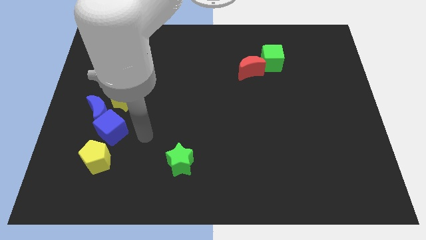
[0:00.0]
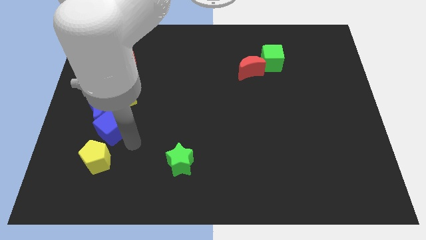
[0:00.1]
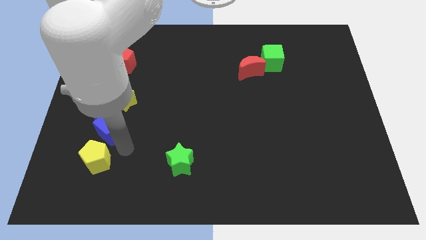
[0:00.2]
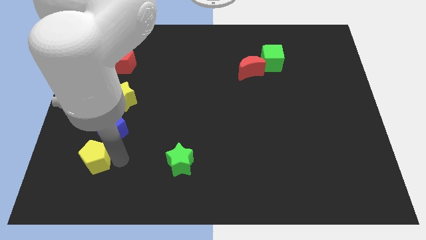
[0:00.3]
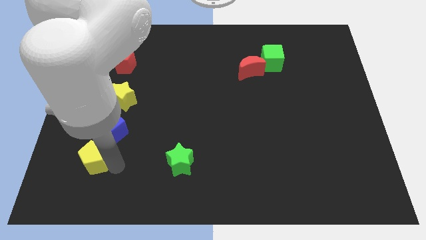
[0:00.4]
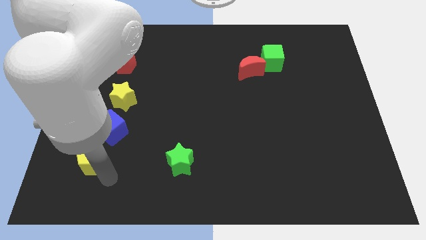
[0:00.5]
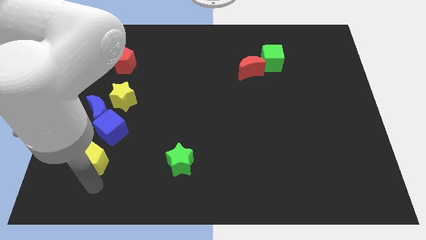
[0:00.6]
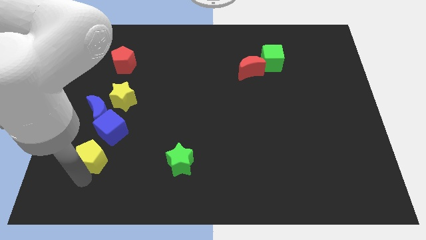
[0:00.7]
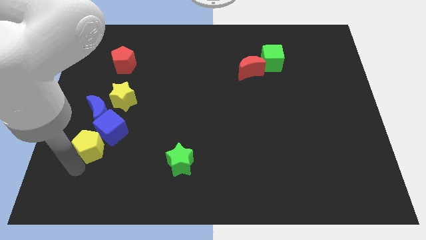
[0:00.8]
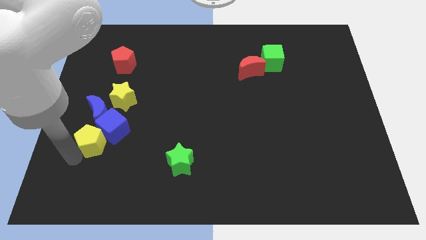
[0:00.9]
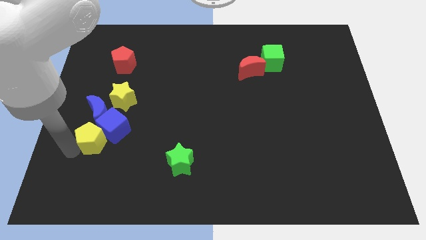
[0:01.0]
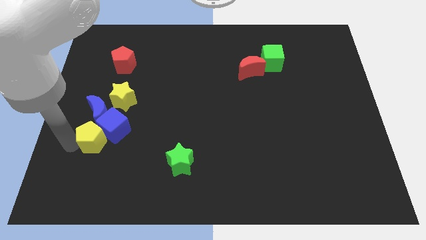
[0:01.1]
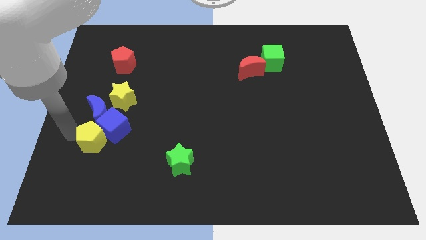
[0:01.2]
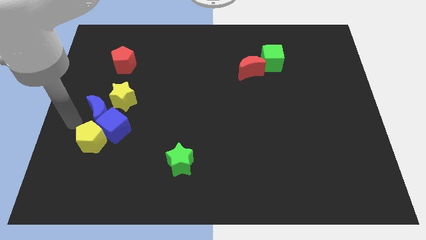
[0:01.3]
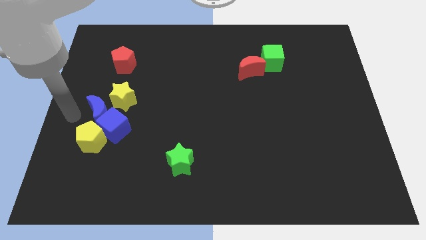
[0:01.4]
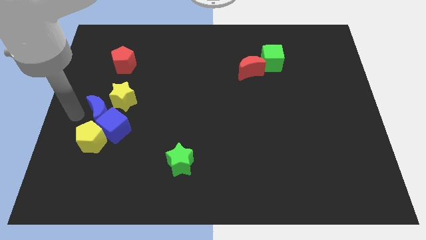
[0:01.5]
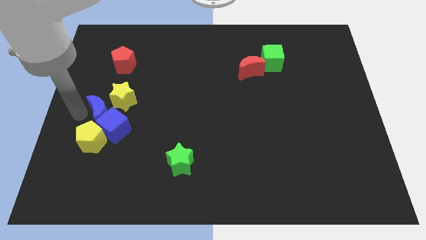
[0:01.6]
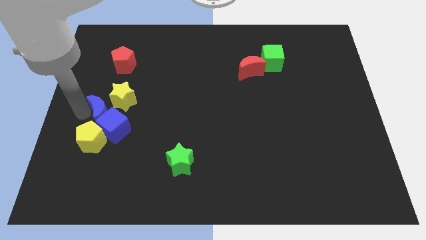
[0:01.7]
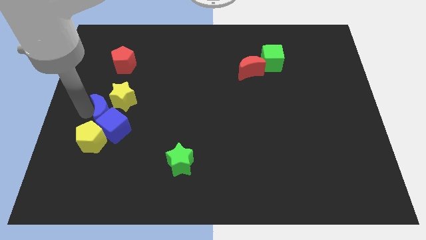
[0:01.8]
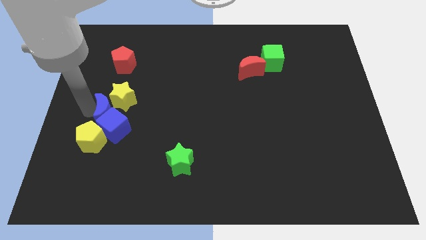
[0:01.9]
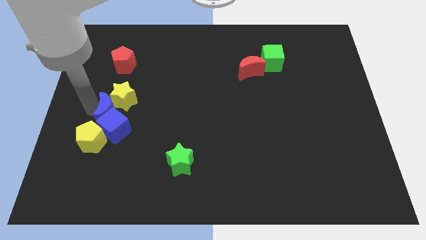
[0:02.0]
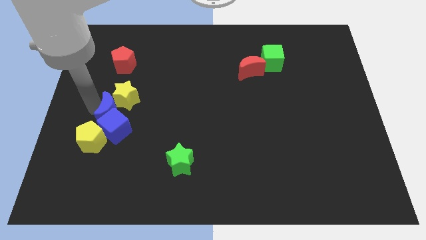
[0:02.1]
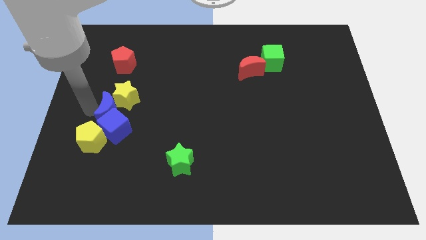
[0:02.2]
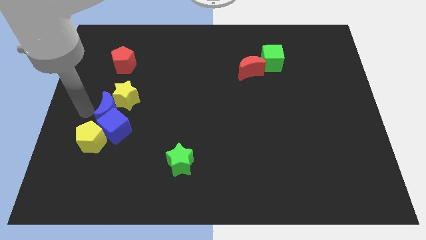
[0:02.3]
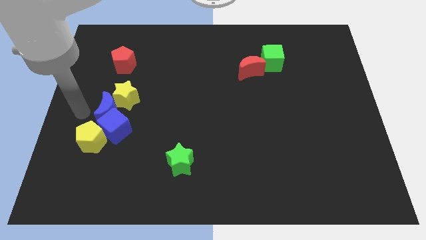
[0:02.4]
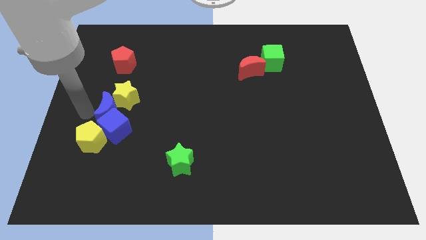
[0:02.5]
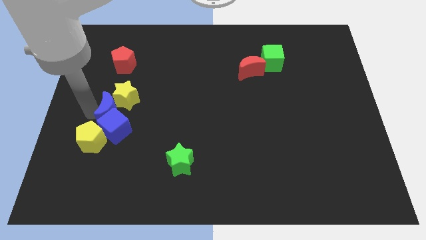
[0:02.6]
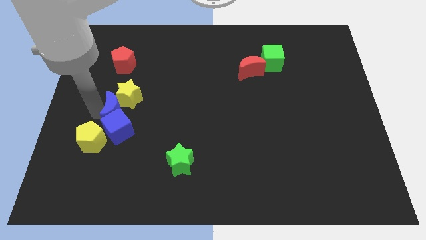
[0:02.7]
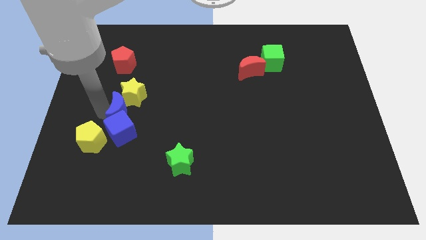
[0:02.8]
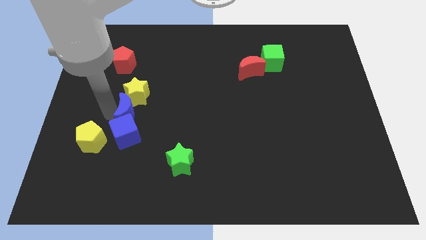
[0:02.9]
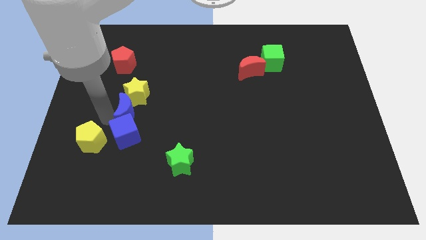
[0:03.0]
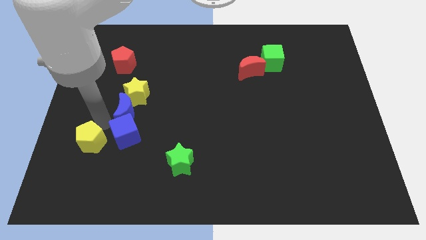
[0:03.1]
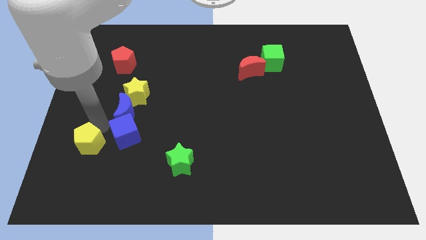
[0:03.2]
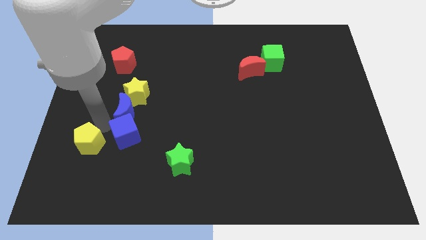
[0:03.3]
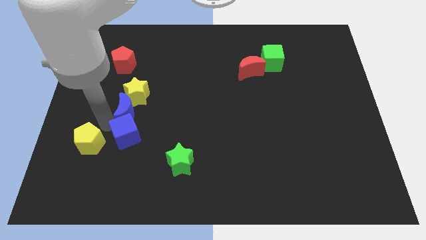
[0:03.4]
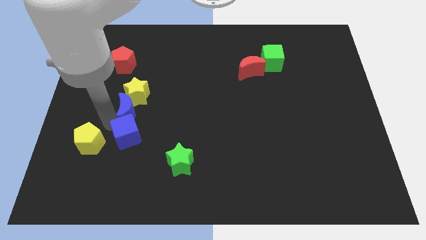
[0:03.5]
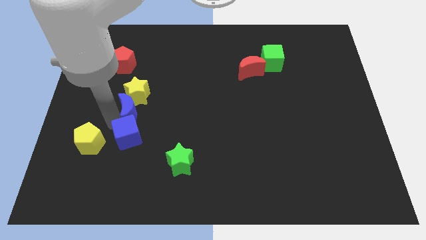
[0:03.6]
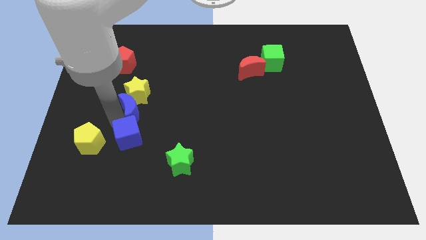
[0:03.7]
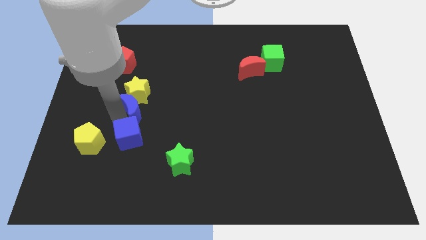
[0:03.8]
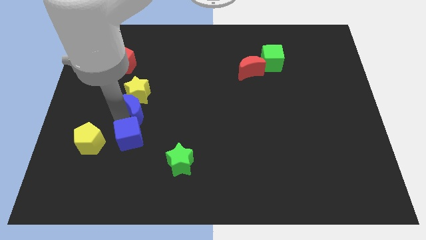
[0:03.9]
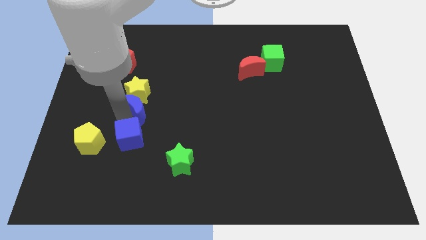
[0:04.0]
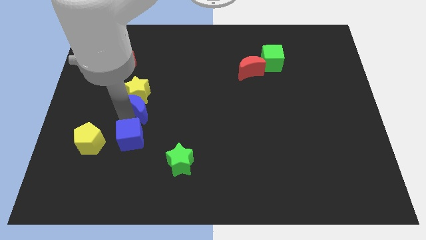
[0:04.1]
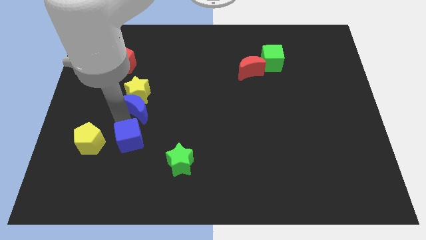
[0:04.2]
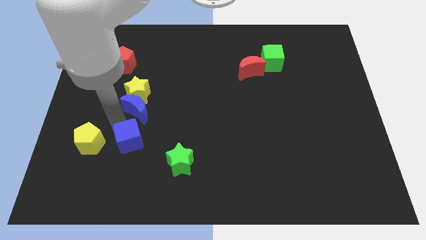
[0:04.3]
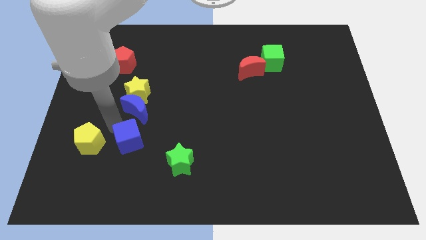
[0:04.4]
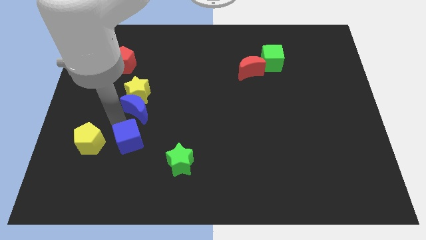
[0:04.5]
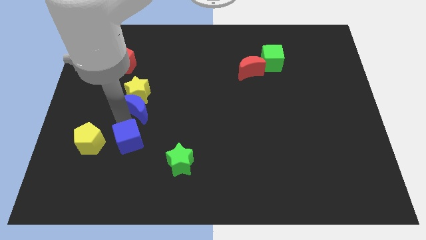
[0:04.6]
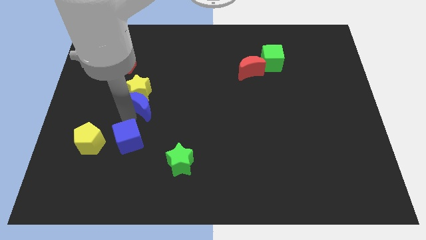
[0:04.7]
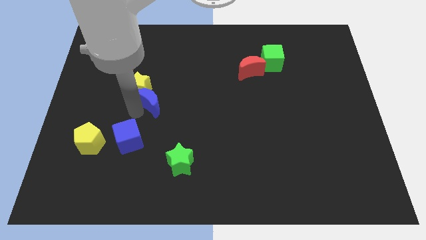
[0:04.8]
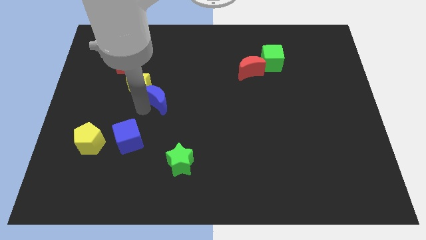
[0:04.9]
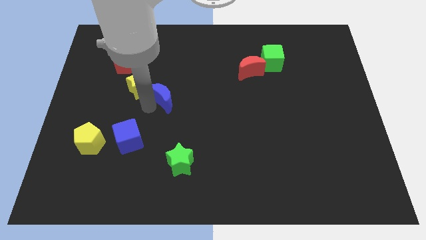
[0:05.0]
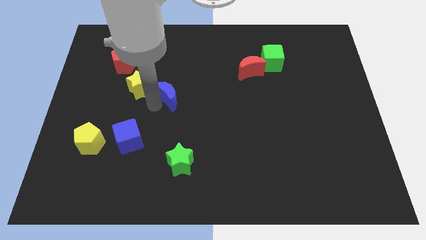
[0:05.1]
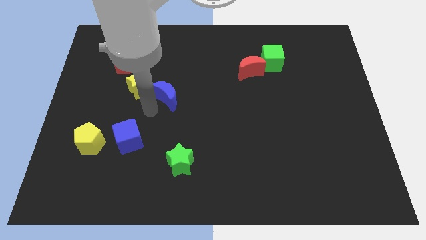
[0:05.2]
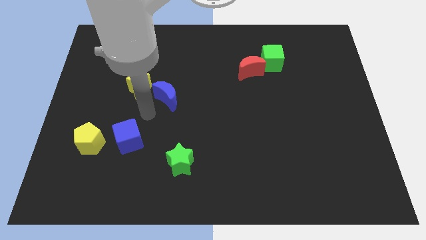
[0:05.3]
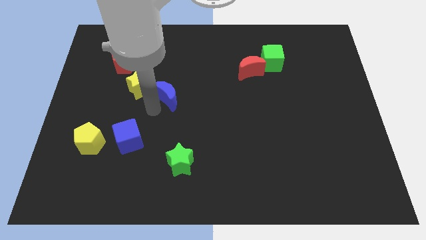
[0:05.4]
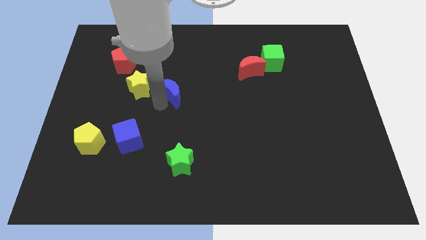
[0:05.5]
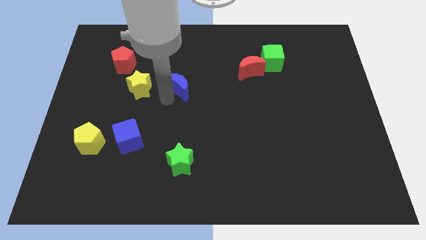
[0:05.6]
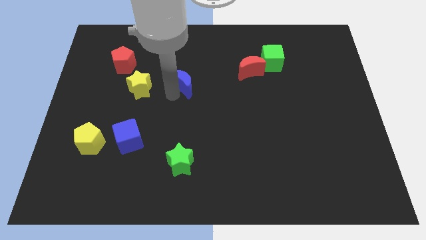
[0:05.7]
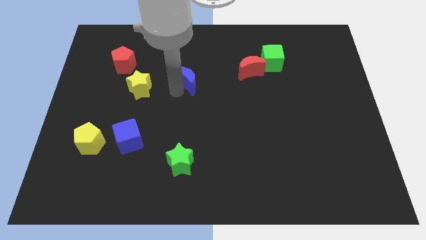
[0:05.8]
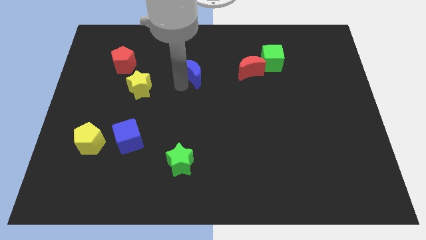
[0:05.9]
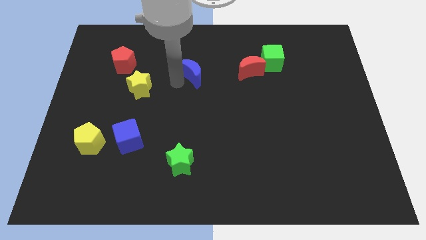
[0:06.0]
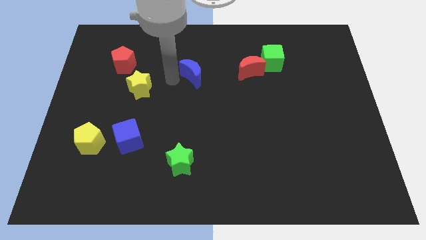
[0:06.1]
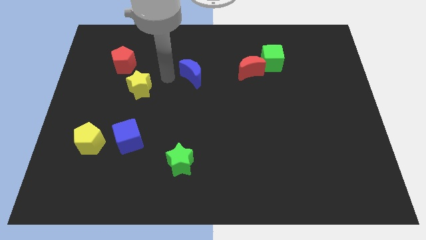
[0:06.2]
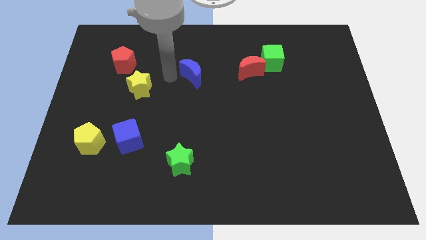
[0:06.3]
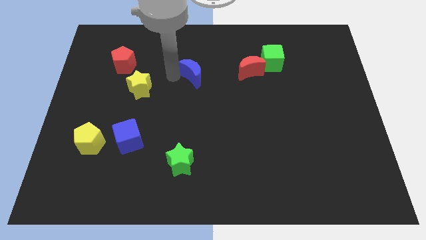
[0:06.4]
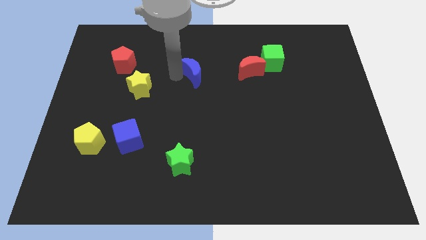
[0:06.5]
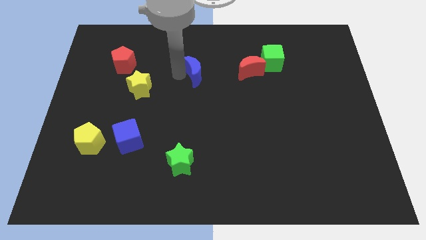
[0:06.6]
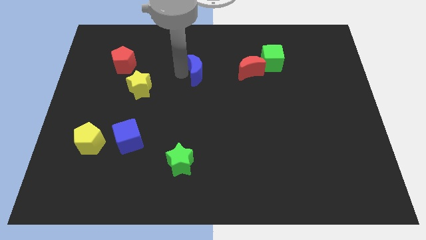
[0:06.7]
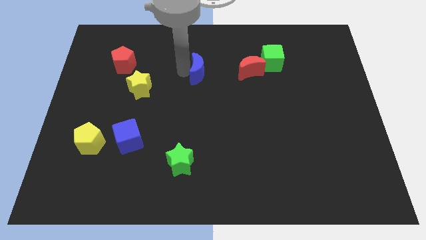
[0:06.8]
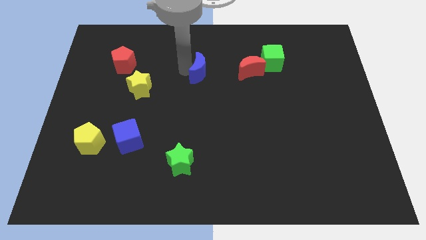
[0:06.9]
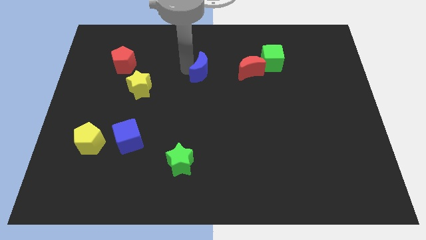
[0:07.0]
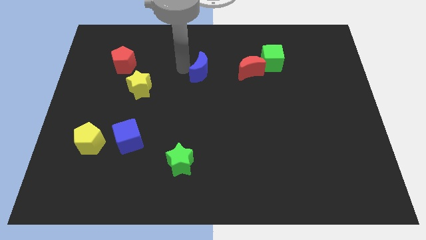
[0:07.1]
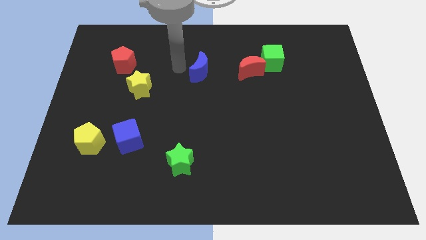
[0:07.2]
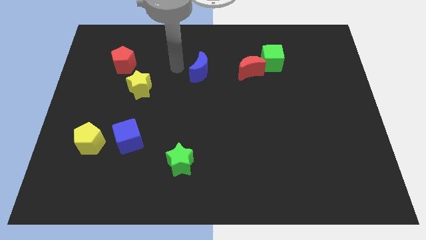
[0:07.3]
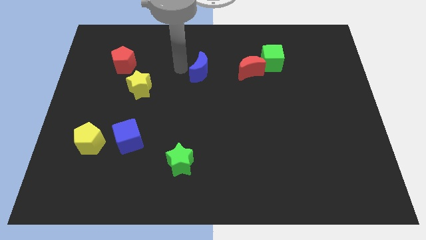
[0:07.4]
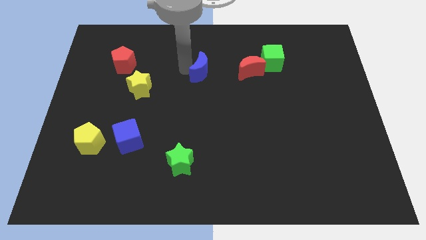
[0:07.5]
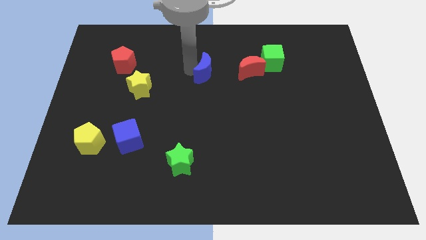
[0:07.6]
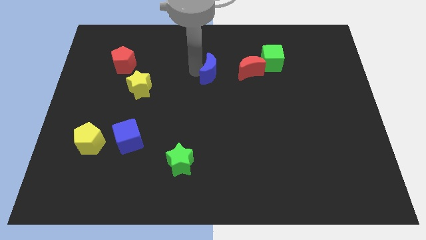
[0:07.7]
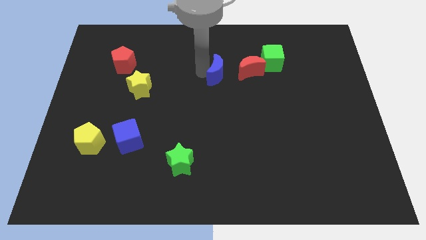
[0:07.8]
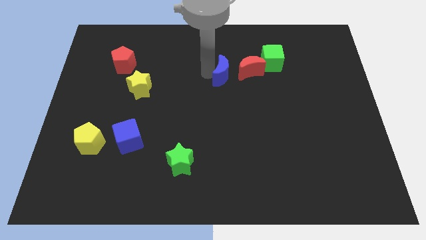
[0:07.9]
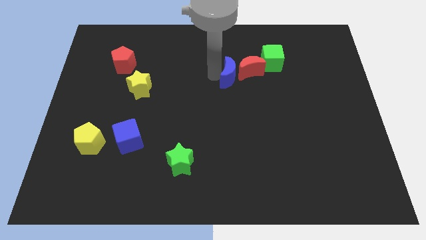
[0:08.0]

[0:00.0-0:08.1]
slide the blue moon next to the red moon
